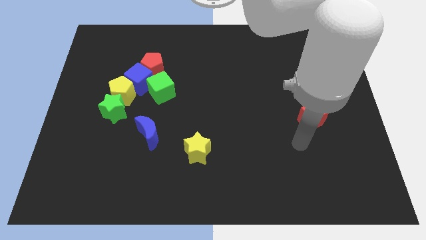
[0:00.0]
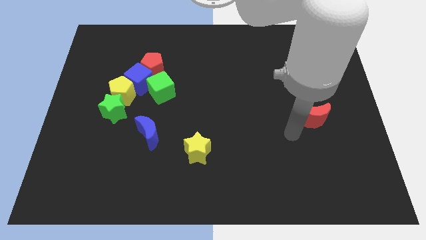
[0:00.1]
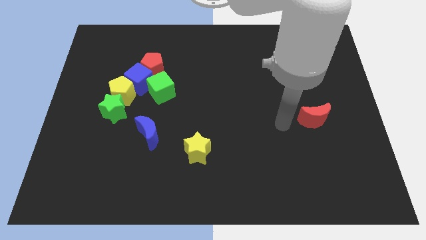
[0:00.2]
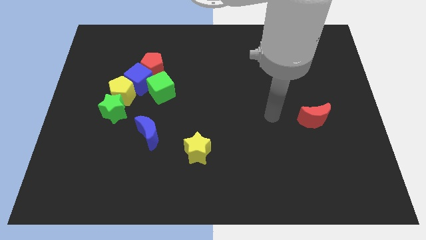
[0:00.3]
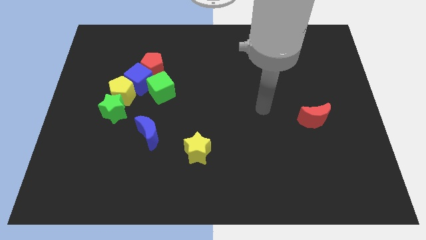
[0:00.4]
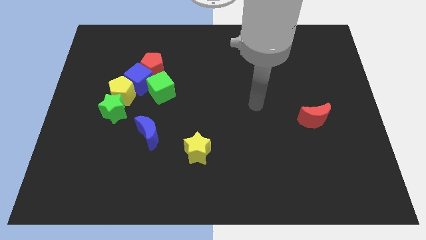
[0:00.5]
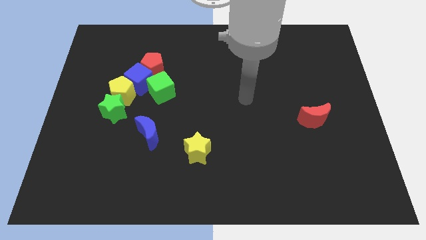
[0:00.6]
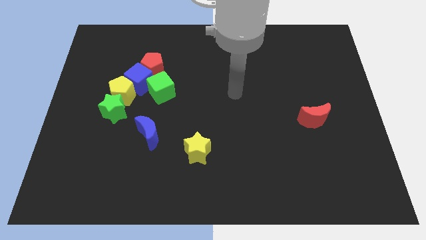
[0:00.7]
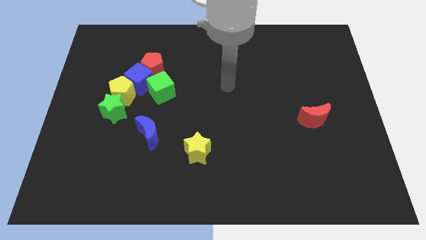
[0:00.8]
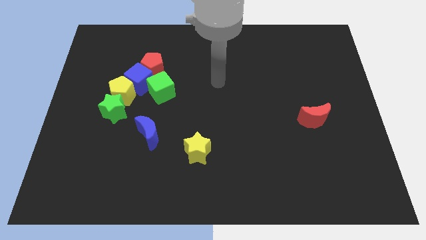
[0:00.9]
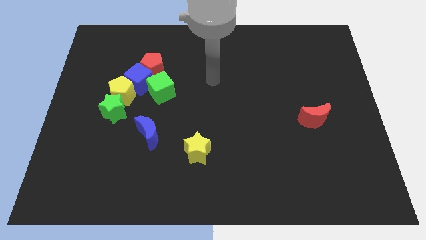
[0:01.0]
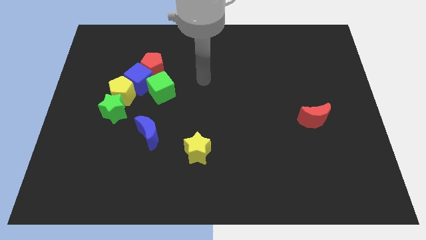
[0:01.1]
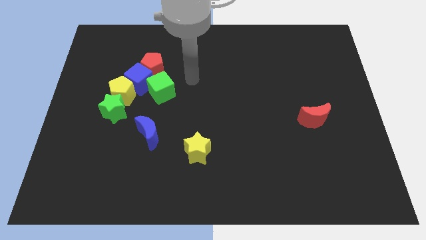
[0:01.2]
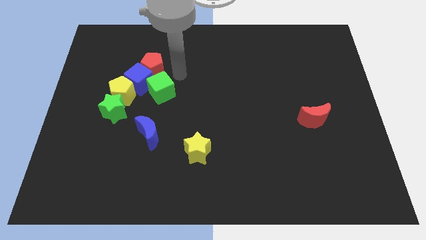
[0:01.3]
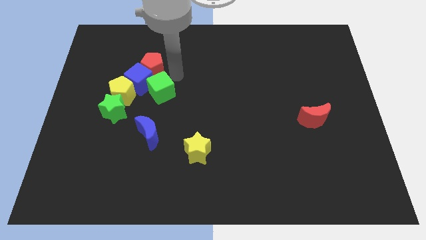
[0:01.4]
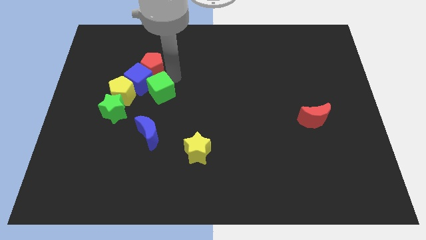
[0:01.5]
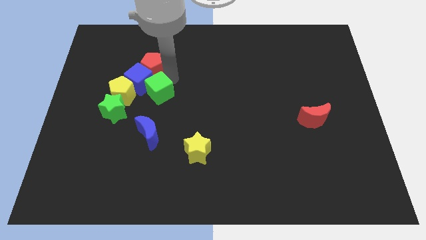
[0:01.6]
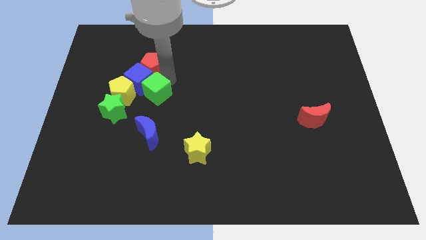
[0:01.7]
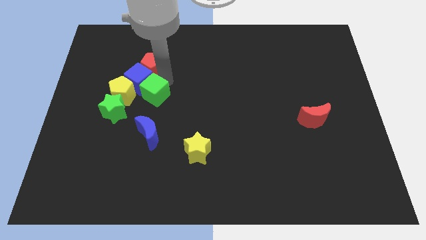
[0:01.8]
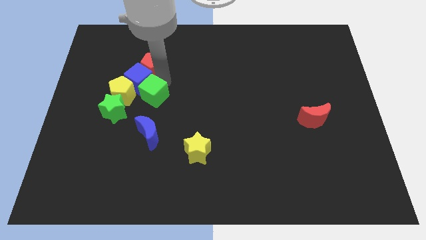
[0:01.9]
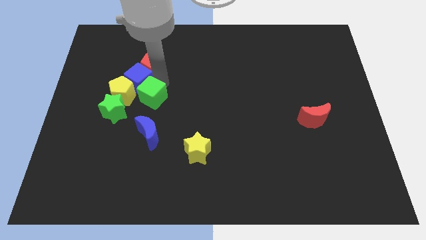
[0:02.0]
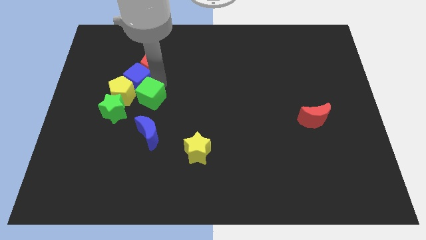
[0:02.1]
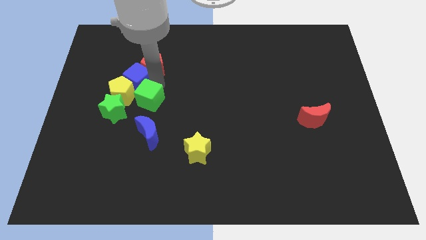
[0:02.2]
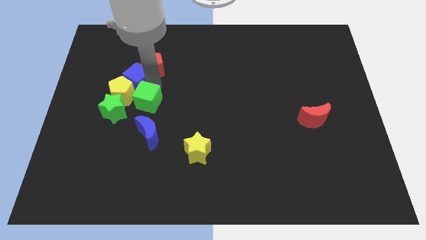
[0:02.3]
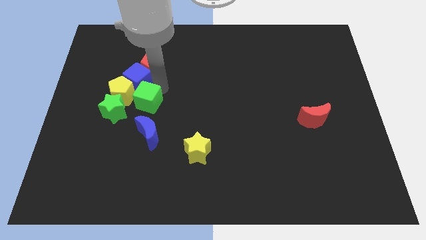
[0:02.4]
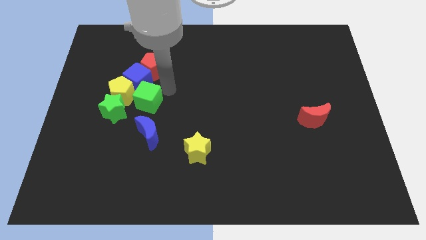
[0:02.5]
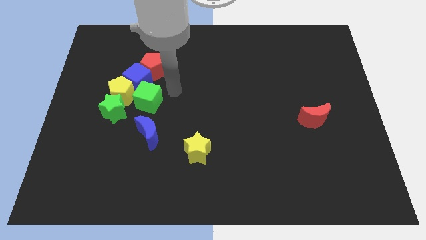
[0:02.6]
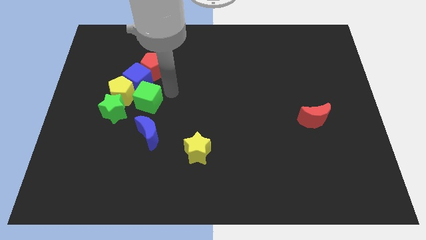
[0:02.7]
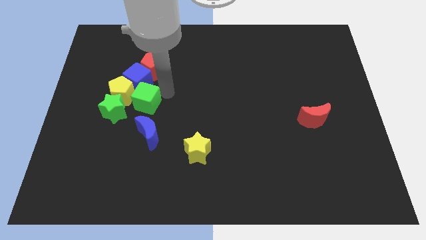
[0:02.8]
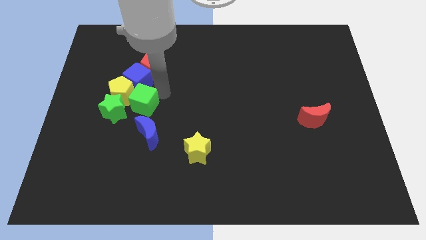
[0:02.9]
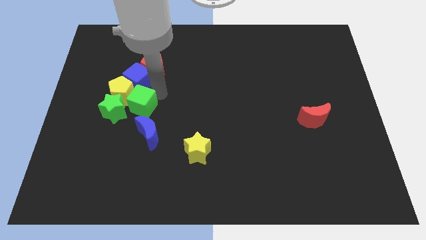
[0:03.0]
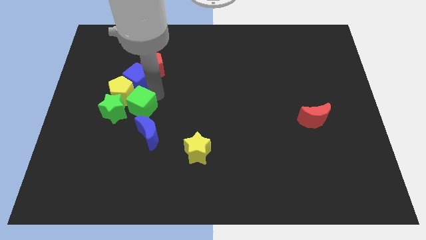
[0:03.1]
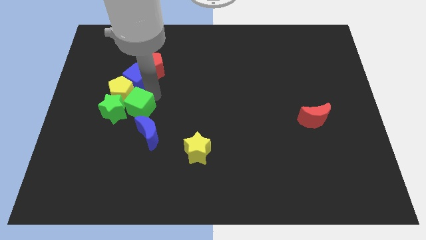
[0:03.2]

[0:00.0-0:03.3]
put the green cube to the green star

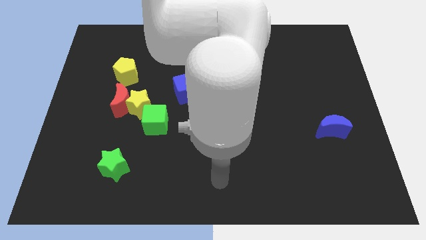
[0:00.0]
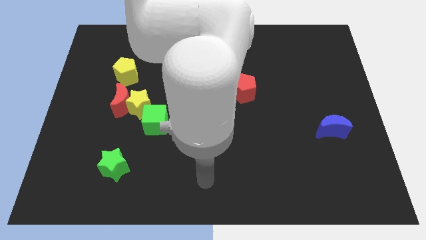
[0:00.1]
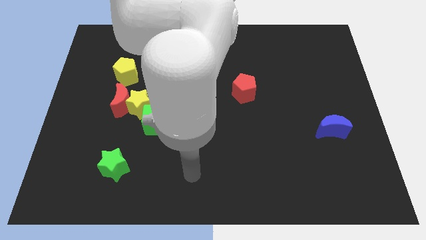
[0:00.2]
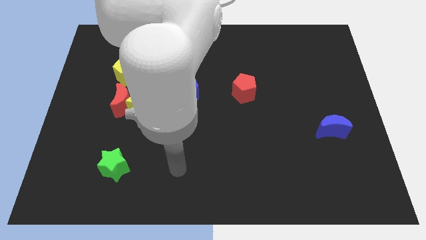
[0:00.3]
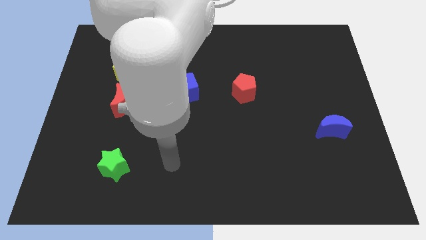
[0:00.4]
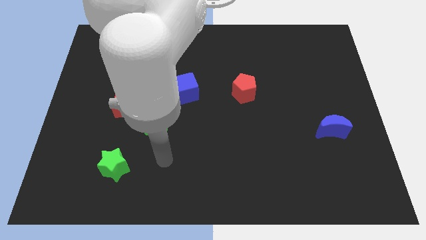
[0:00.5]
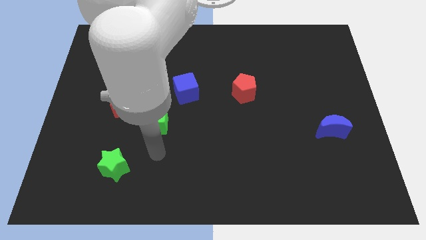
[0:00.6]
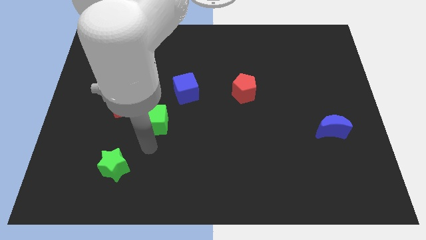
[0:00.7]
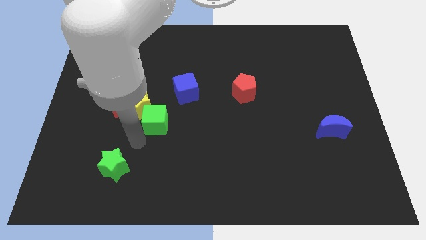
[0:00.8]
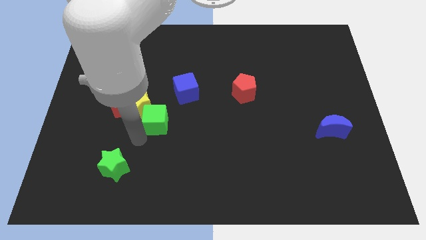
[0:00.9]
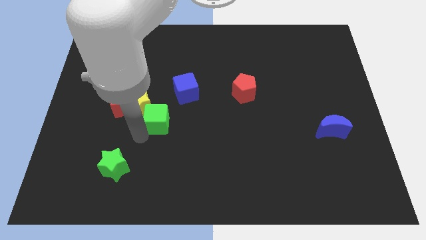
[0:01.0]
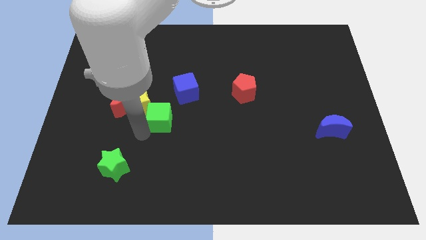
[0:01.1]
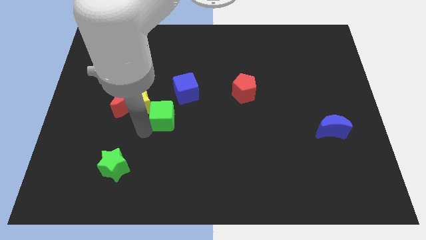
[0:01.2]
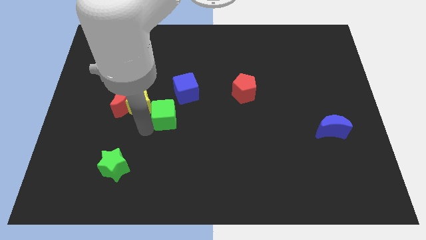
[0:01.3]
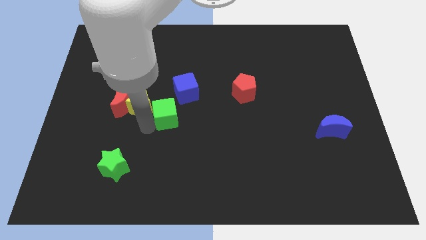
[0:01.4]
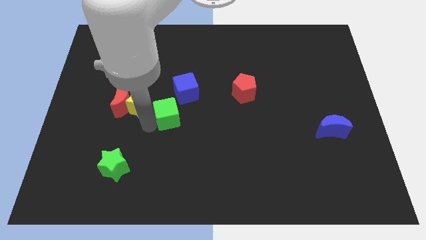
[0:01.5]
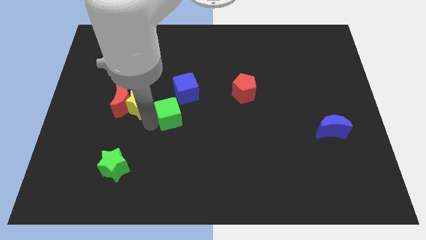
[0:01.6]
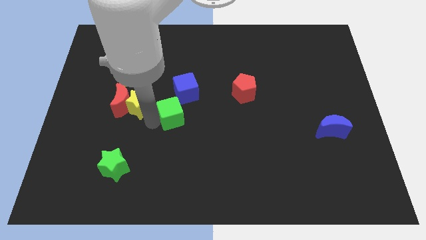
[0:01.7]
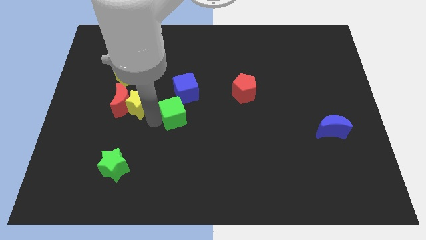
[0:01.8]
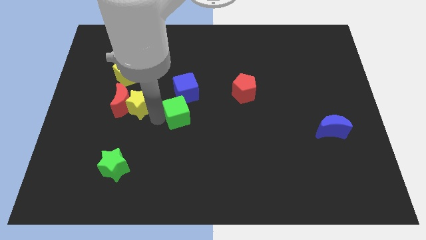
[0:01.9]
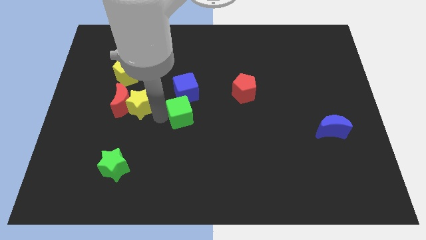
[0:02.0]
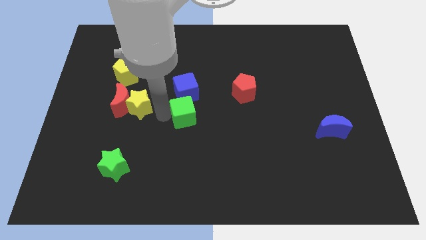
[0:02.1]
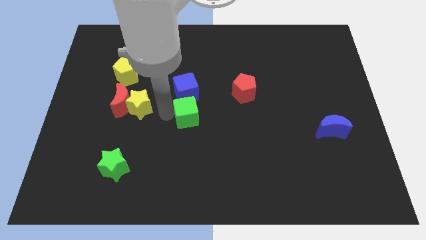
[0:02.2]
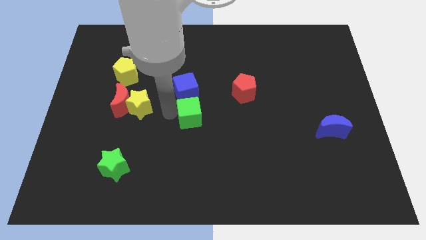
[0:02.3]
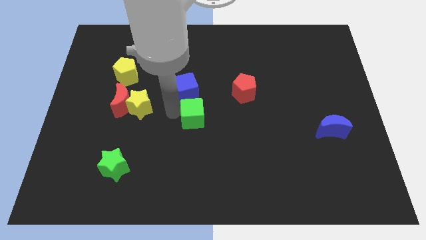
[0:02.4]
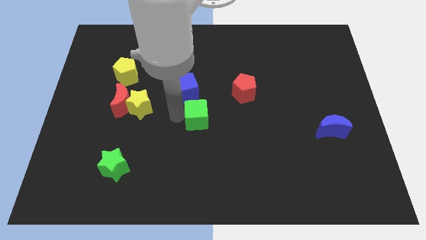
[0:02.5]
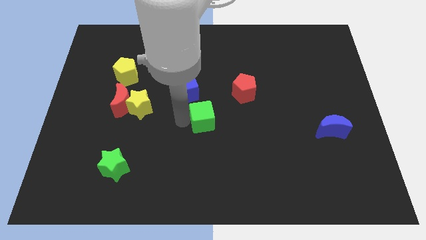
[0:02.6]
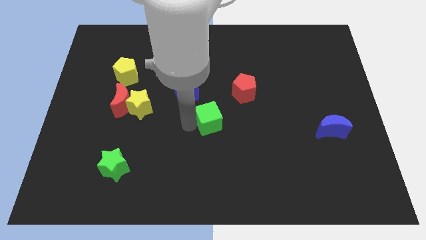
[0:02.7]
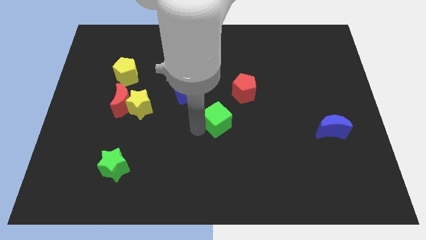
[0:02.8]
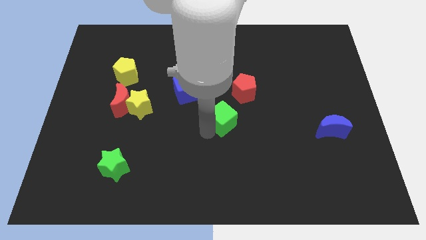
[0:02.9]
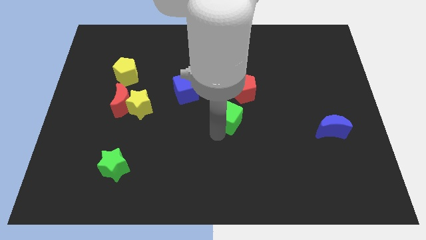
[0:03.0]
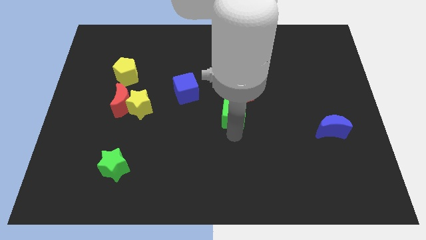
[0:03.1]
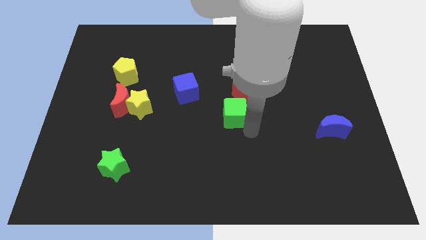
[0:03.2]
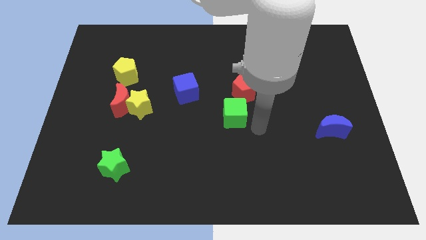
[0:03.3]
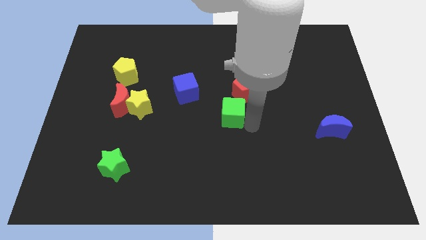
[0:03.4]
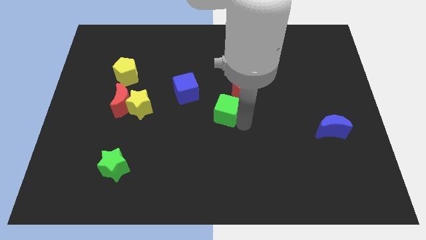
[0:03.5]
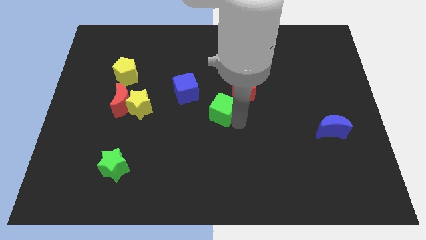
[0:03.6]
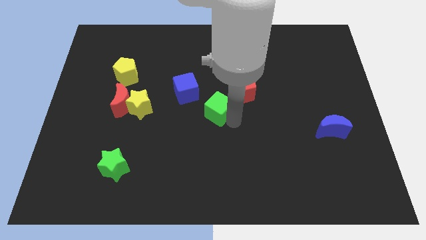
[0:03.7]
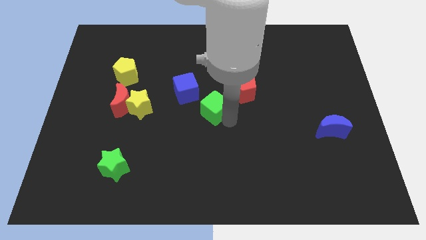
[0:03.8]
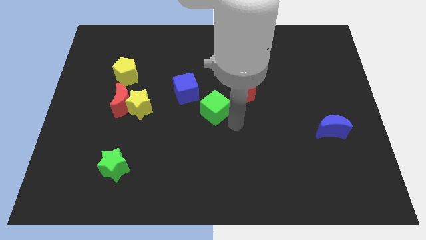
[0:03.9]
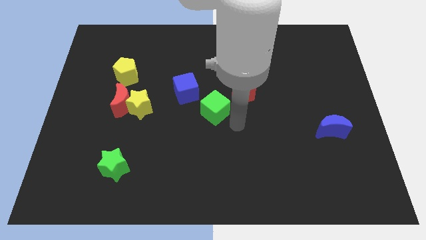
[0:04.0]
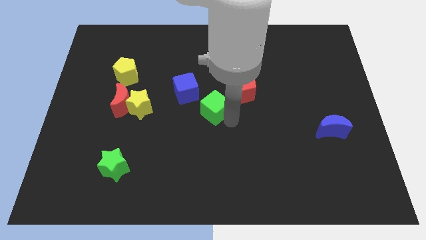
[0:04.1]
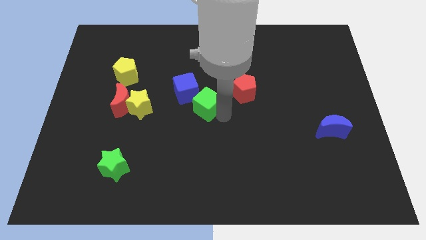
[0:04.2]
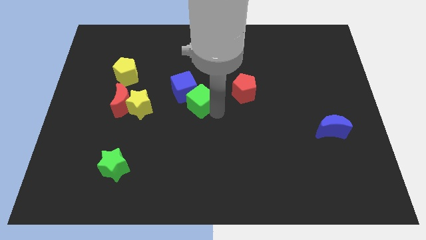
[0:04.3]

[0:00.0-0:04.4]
push the green cube to the blue cube

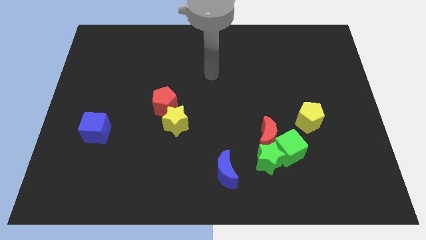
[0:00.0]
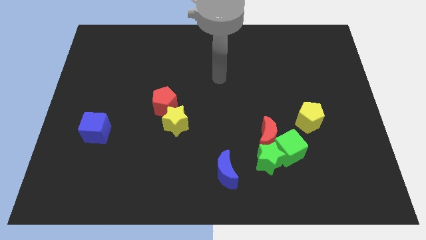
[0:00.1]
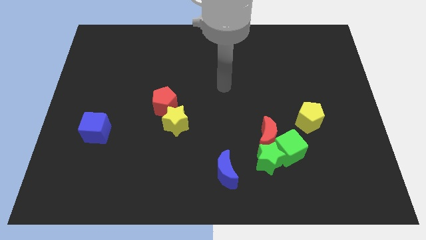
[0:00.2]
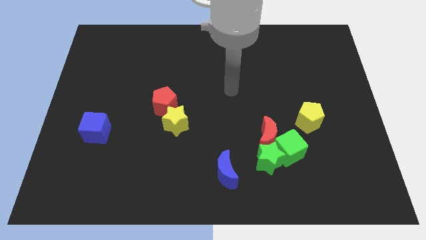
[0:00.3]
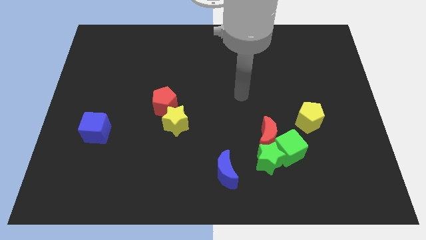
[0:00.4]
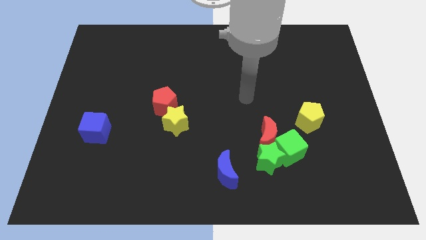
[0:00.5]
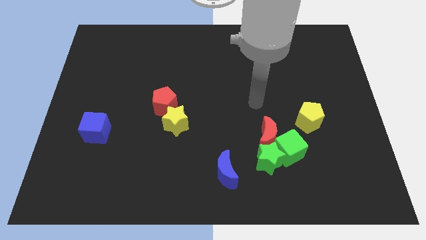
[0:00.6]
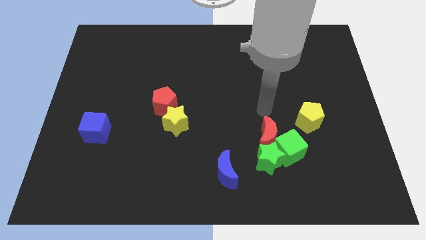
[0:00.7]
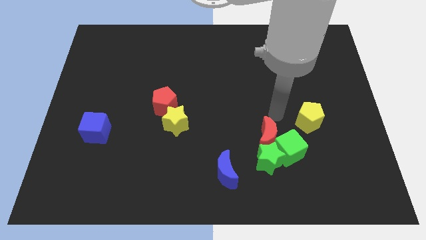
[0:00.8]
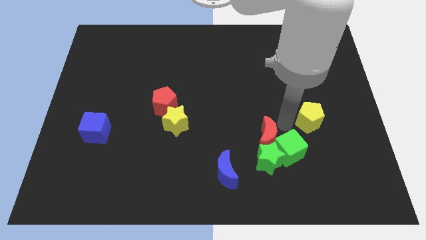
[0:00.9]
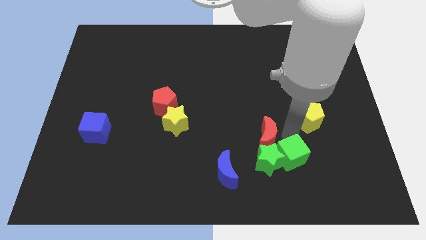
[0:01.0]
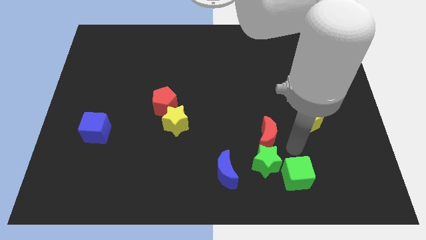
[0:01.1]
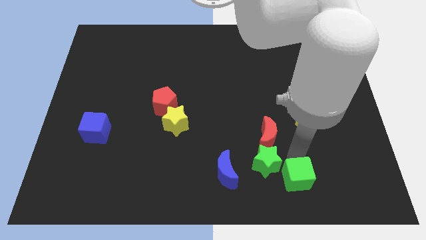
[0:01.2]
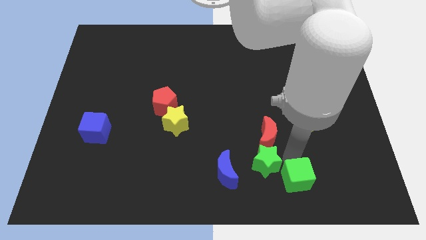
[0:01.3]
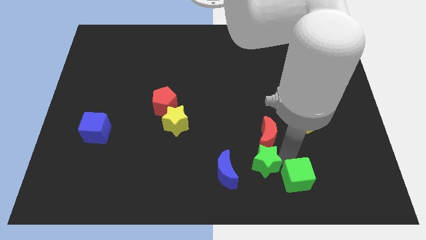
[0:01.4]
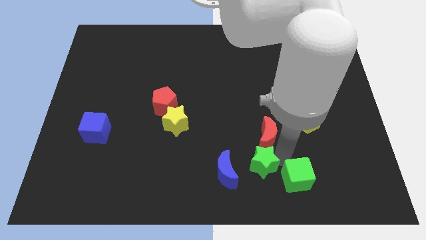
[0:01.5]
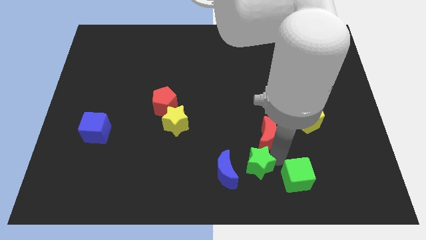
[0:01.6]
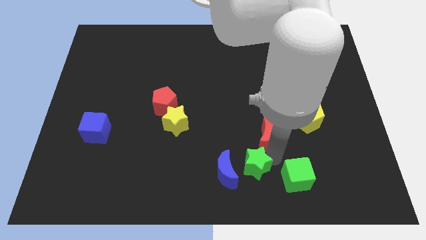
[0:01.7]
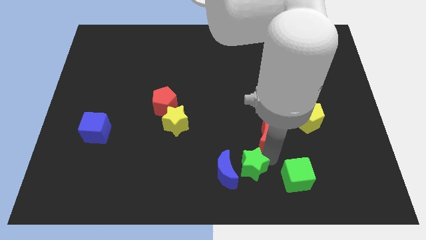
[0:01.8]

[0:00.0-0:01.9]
move the green star close to the blue moon
